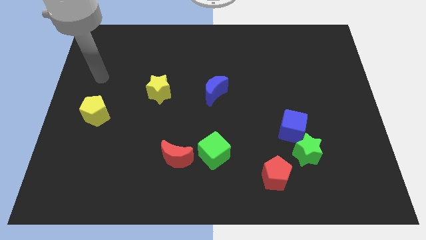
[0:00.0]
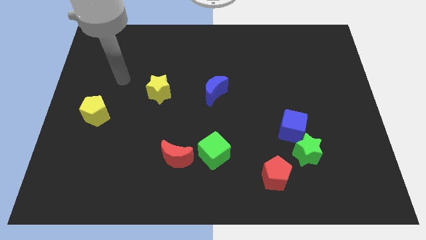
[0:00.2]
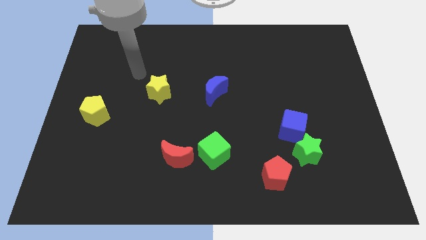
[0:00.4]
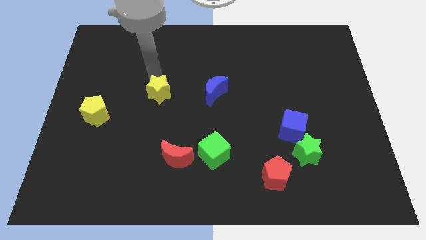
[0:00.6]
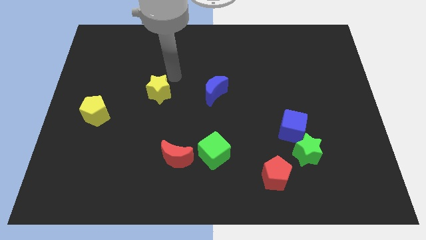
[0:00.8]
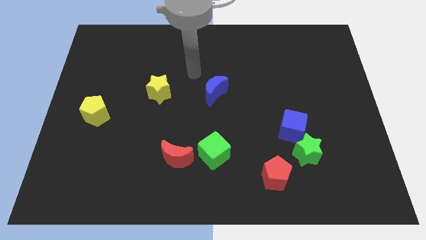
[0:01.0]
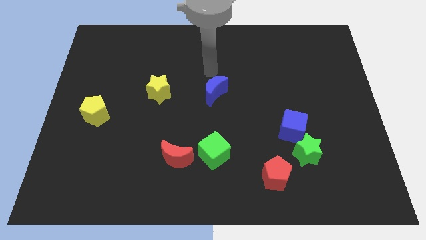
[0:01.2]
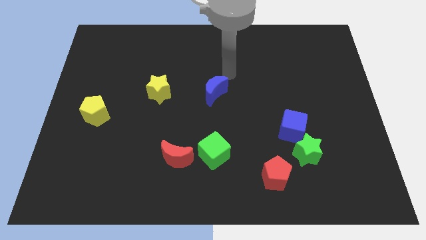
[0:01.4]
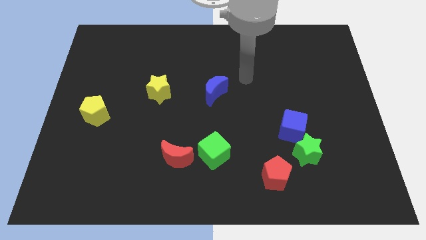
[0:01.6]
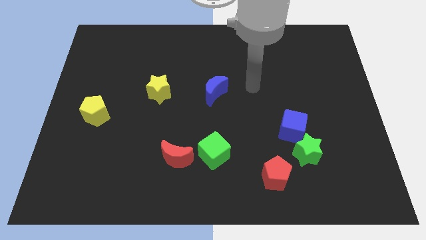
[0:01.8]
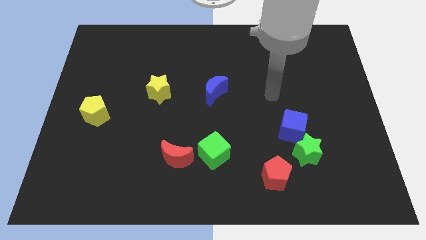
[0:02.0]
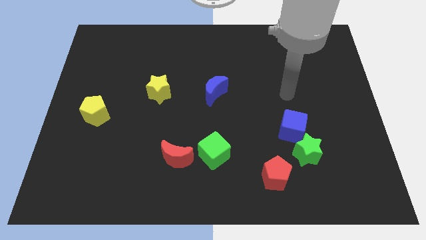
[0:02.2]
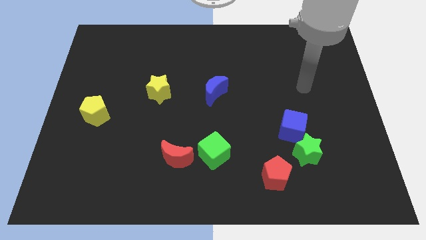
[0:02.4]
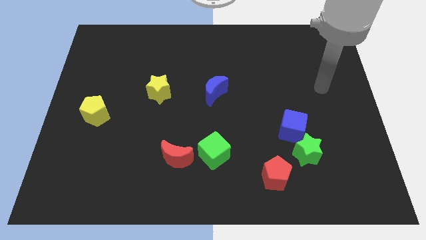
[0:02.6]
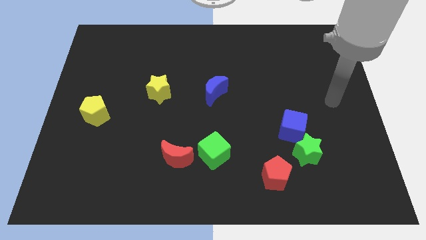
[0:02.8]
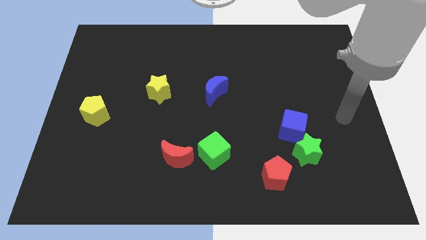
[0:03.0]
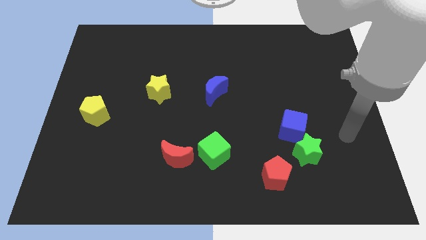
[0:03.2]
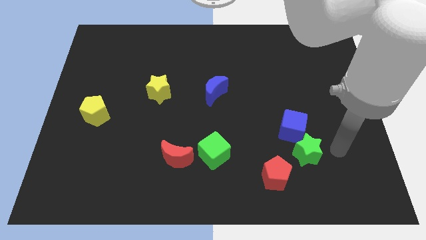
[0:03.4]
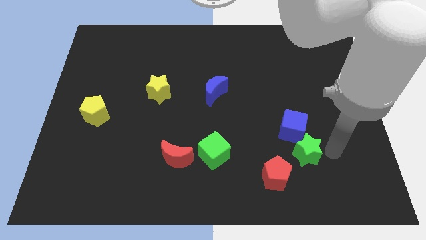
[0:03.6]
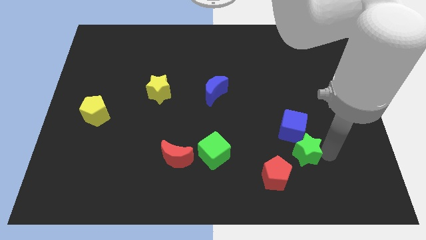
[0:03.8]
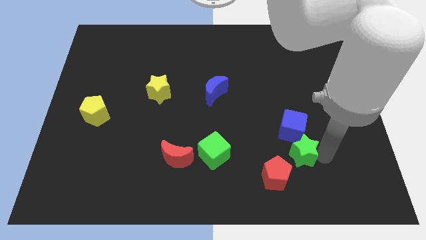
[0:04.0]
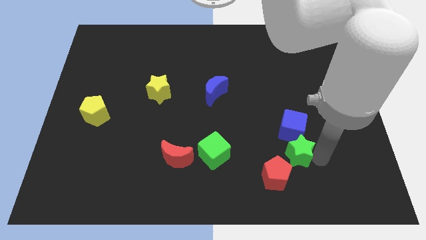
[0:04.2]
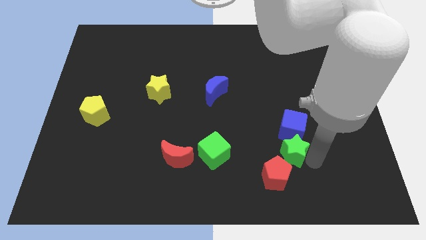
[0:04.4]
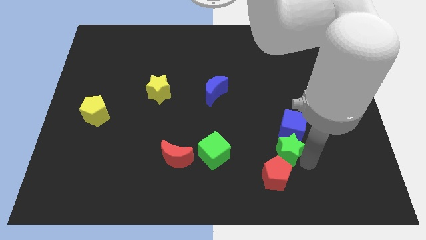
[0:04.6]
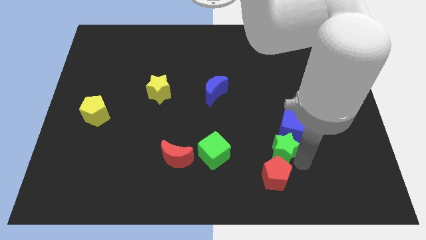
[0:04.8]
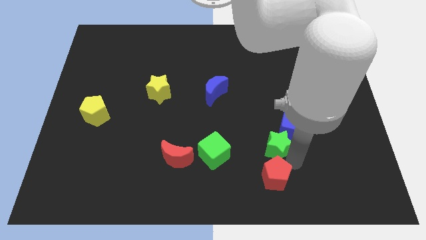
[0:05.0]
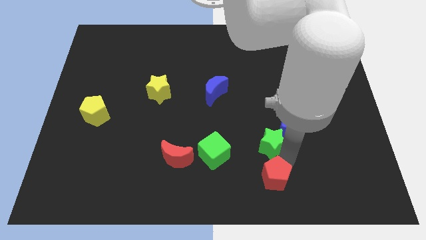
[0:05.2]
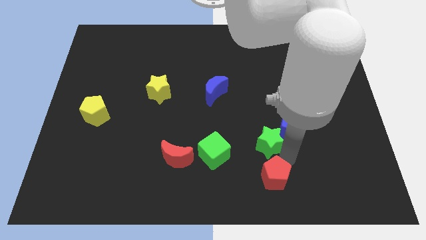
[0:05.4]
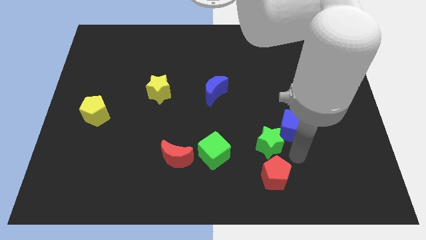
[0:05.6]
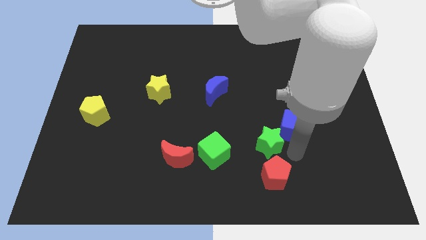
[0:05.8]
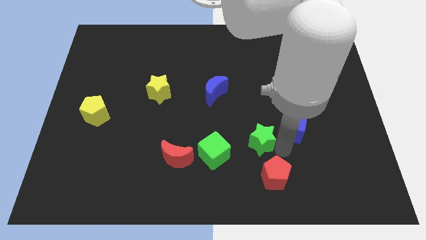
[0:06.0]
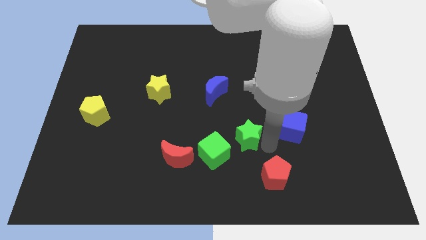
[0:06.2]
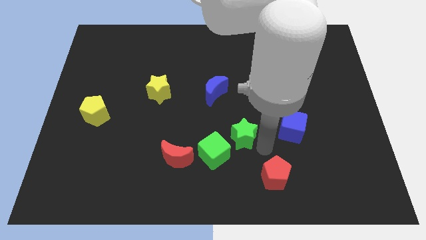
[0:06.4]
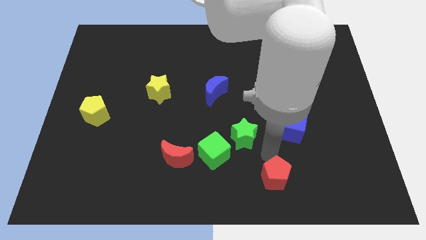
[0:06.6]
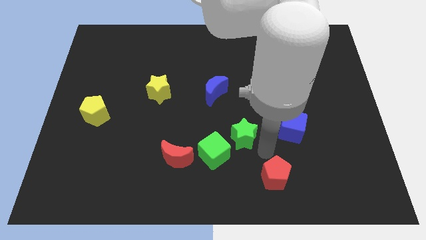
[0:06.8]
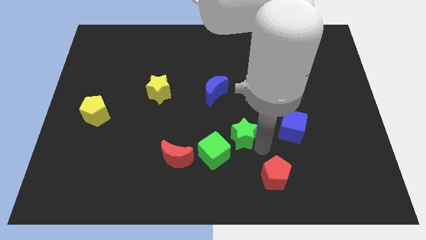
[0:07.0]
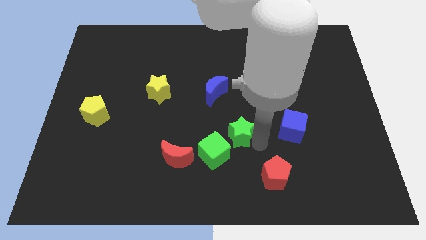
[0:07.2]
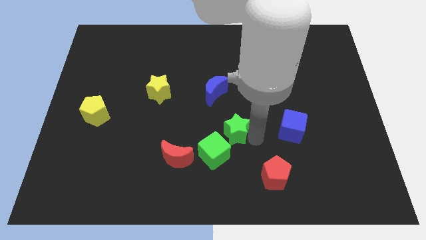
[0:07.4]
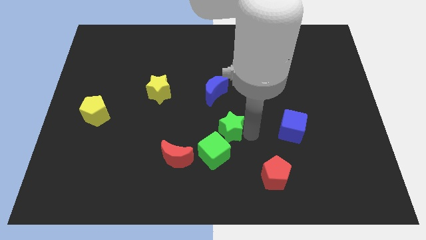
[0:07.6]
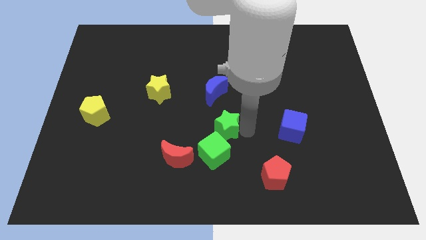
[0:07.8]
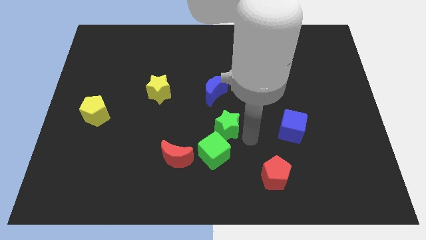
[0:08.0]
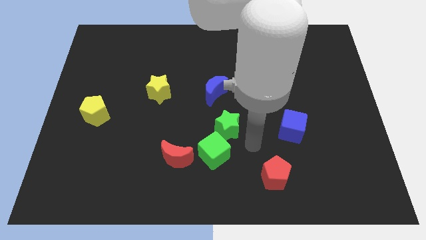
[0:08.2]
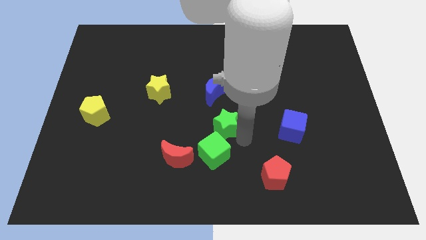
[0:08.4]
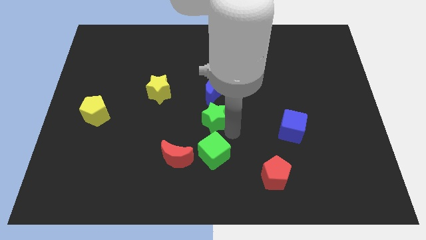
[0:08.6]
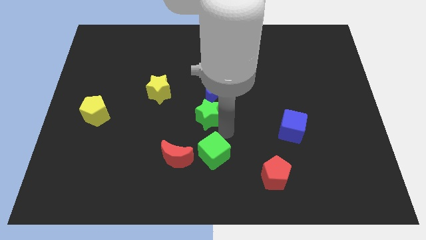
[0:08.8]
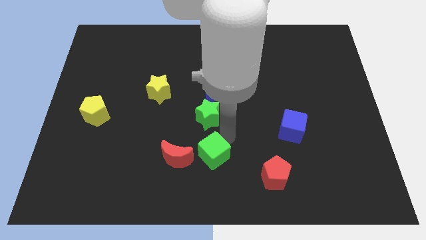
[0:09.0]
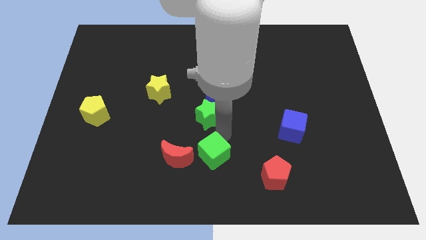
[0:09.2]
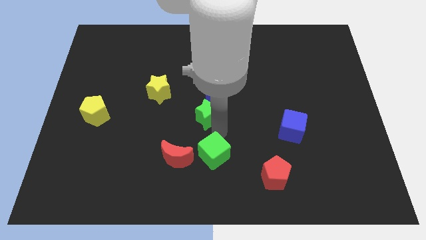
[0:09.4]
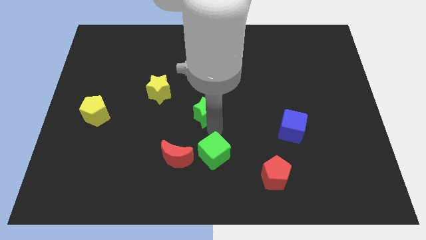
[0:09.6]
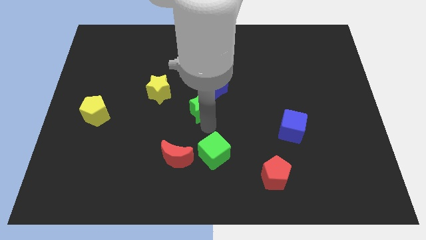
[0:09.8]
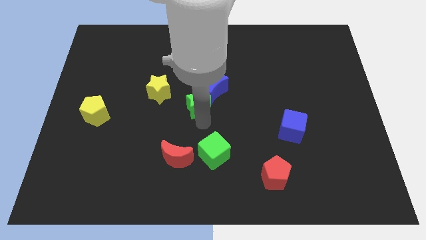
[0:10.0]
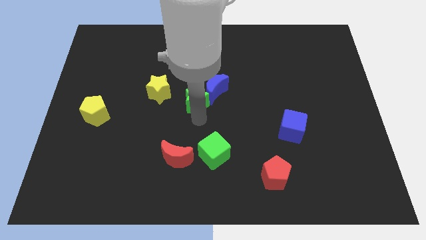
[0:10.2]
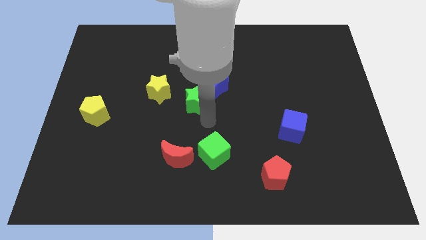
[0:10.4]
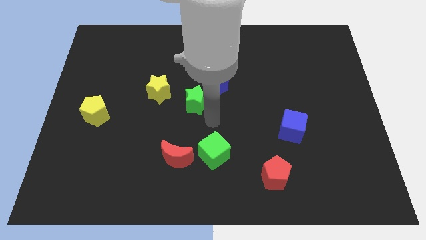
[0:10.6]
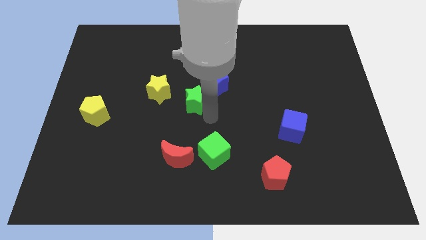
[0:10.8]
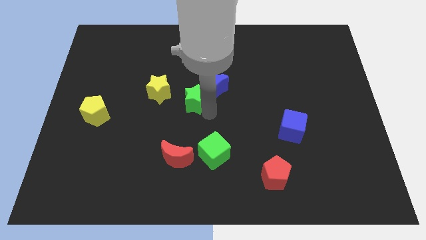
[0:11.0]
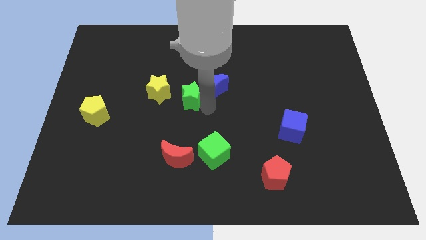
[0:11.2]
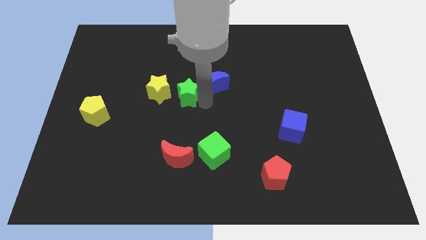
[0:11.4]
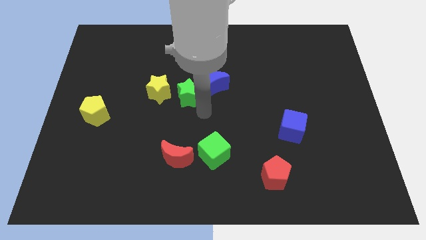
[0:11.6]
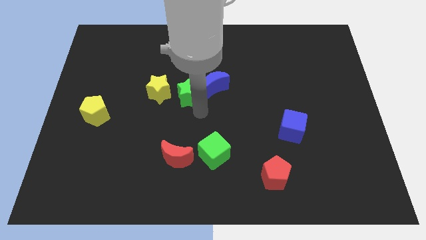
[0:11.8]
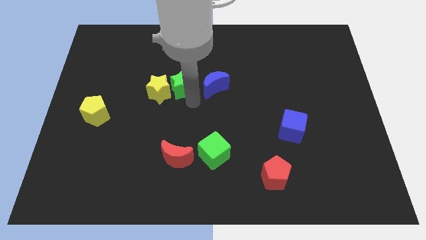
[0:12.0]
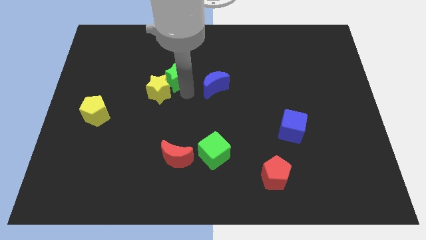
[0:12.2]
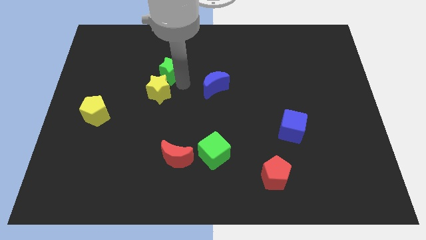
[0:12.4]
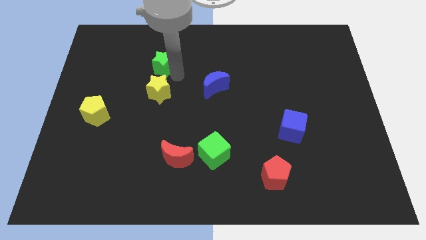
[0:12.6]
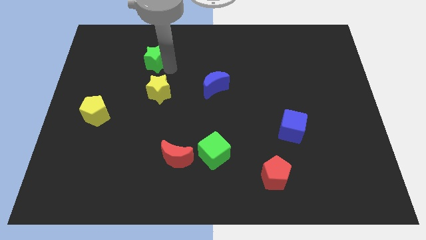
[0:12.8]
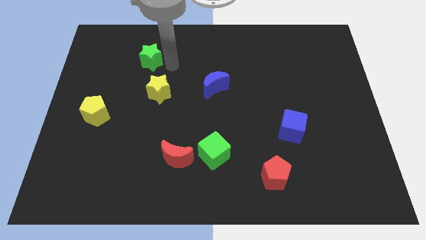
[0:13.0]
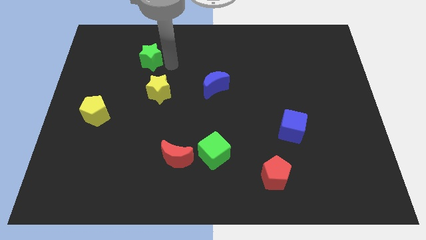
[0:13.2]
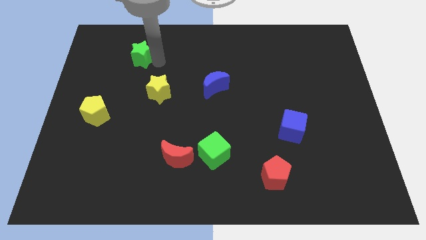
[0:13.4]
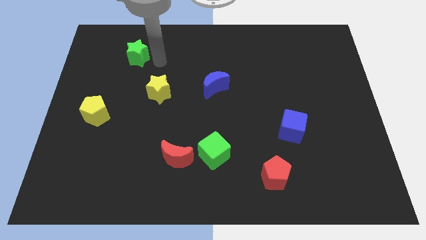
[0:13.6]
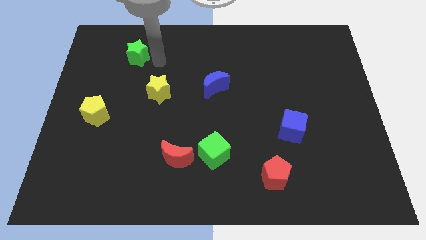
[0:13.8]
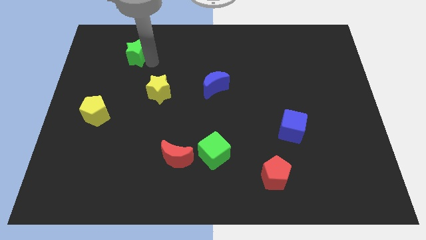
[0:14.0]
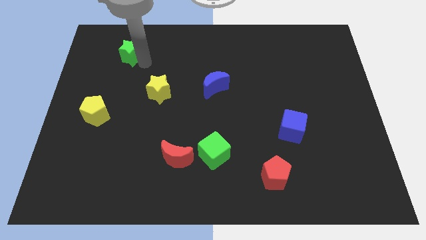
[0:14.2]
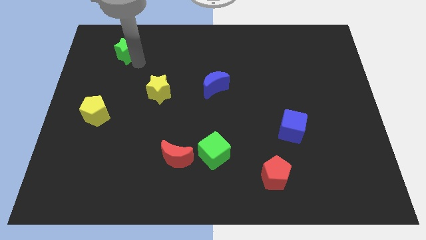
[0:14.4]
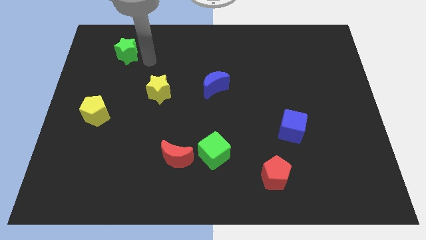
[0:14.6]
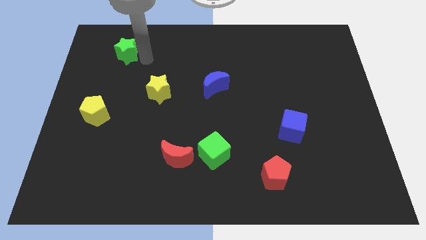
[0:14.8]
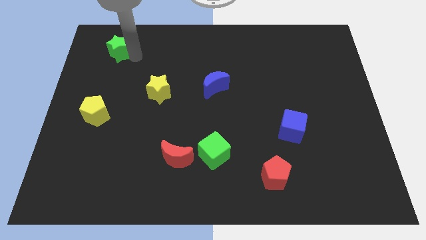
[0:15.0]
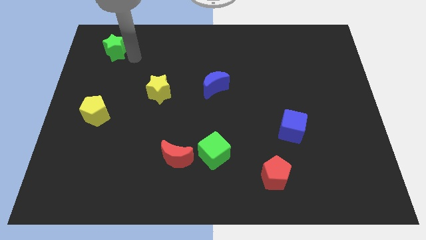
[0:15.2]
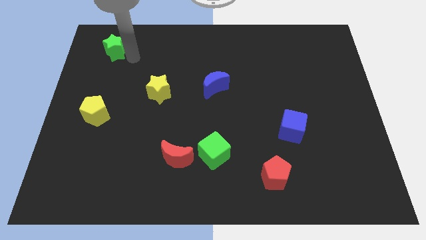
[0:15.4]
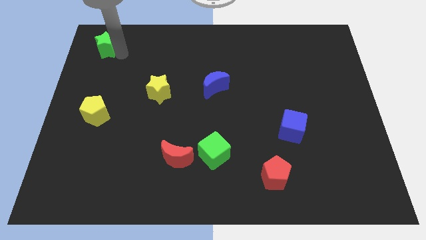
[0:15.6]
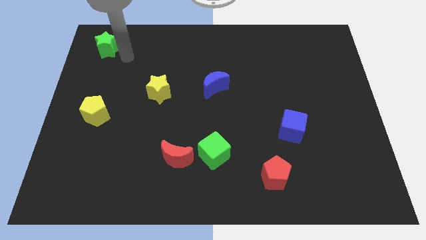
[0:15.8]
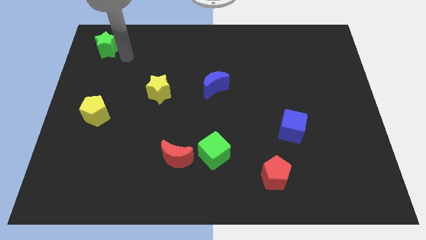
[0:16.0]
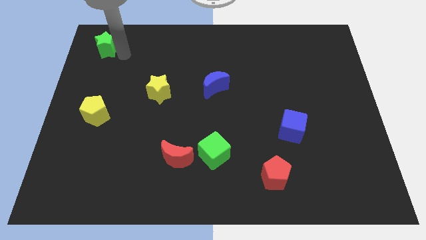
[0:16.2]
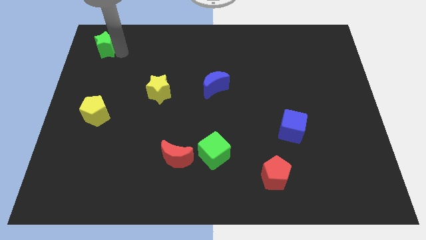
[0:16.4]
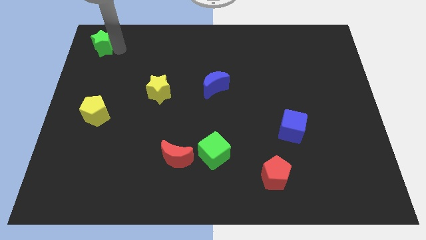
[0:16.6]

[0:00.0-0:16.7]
move the green star to the upper left corner
